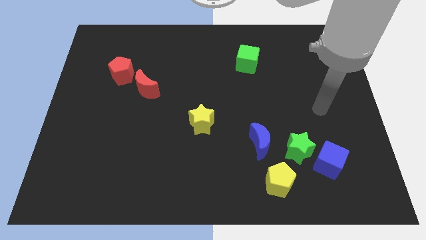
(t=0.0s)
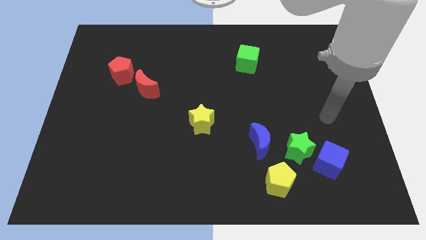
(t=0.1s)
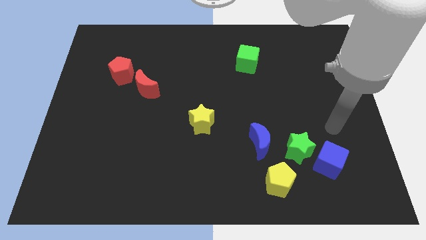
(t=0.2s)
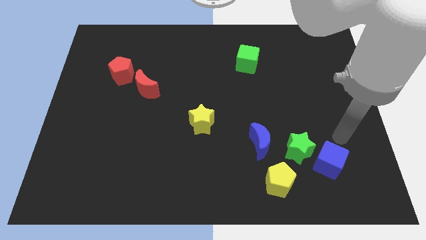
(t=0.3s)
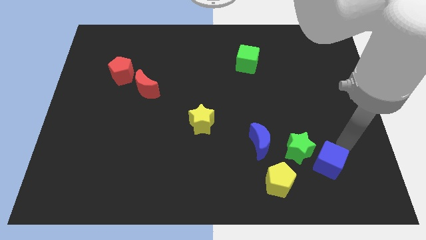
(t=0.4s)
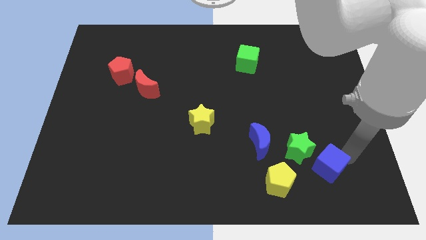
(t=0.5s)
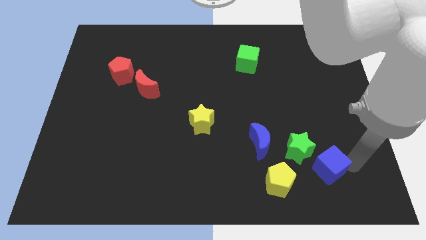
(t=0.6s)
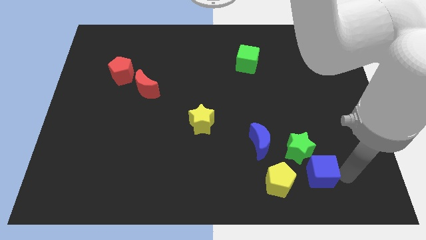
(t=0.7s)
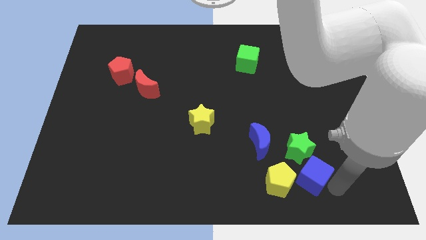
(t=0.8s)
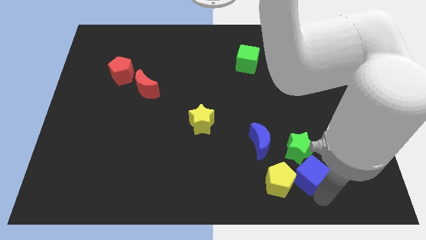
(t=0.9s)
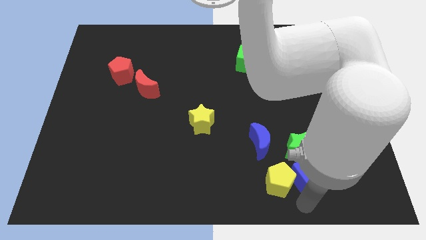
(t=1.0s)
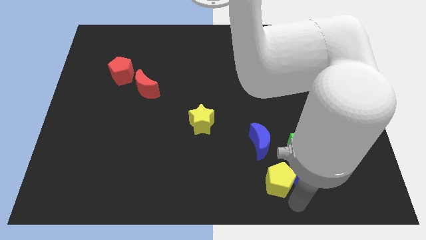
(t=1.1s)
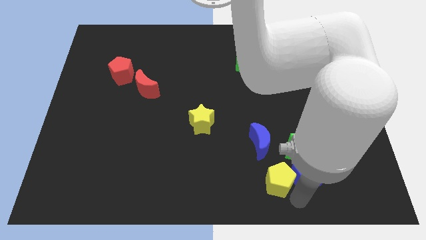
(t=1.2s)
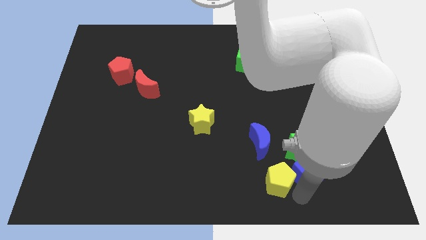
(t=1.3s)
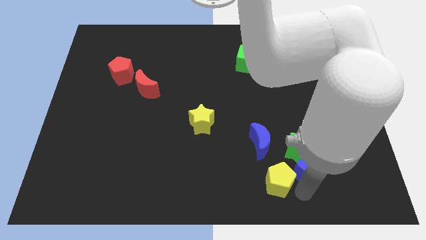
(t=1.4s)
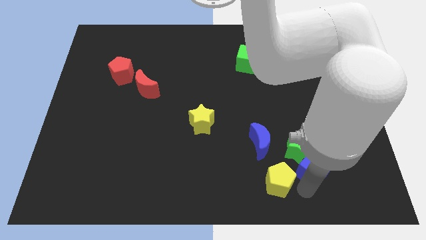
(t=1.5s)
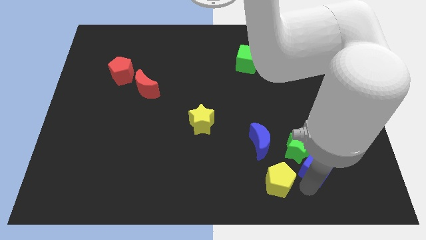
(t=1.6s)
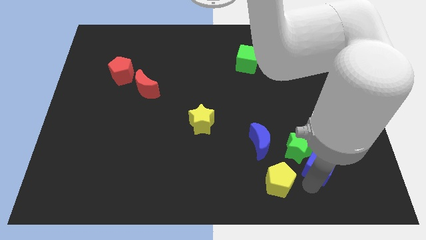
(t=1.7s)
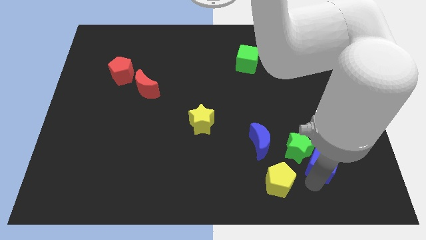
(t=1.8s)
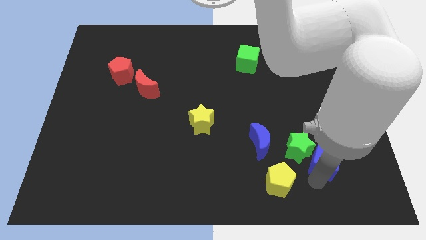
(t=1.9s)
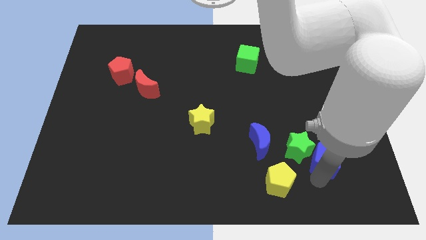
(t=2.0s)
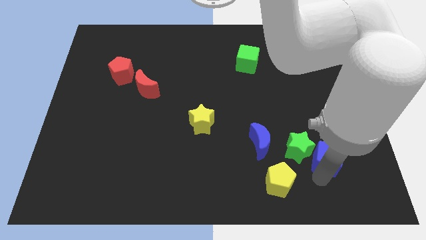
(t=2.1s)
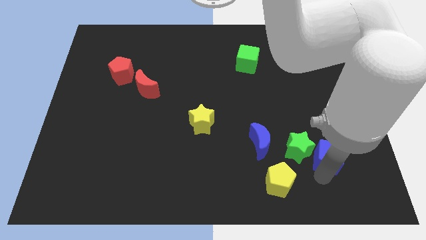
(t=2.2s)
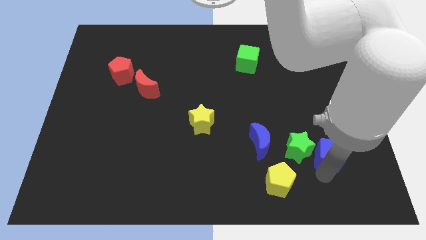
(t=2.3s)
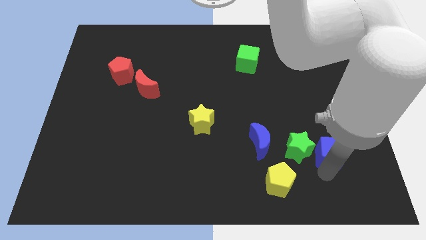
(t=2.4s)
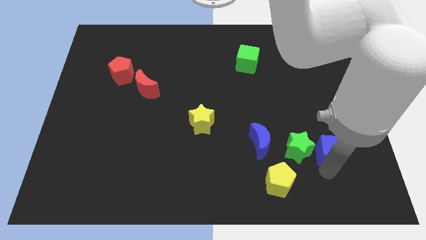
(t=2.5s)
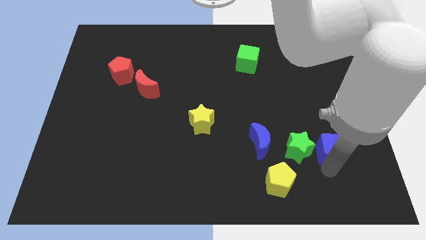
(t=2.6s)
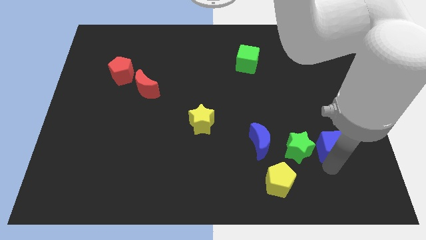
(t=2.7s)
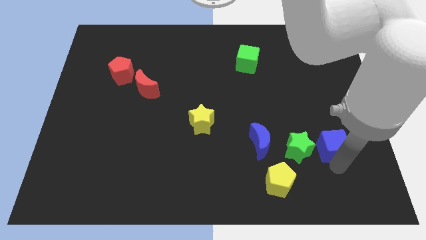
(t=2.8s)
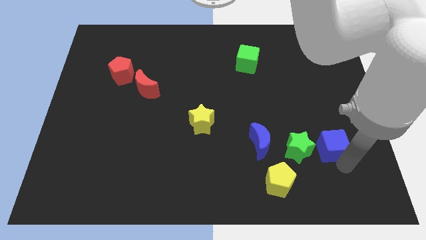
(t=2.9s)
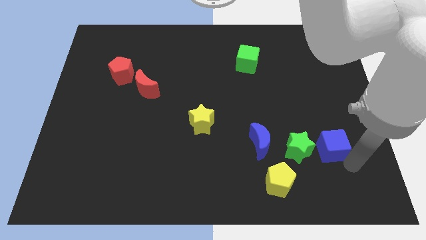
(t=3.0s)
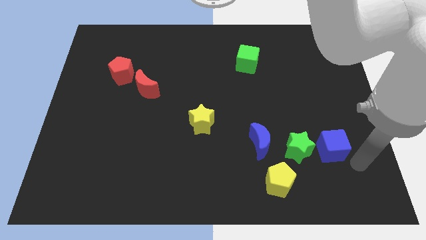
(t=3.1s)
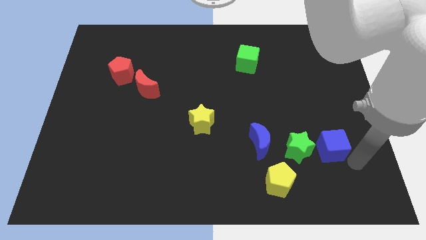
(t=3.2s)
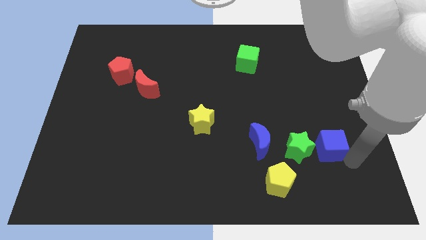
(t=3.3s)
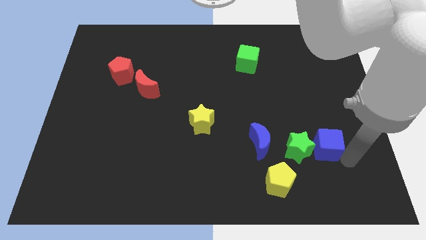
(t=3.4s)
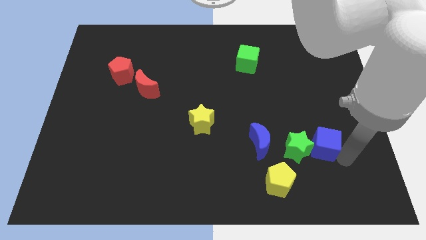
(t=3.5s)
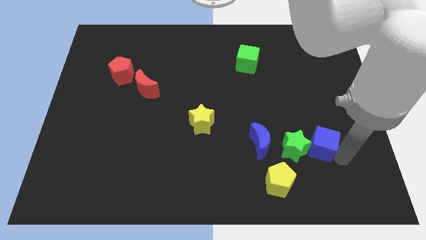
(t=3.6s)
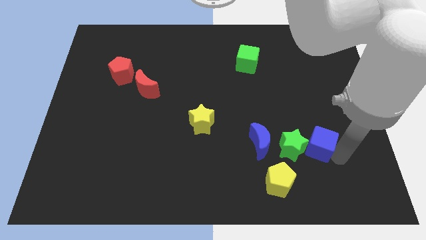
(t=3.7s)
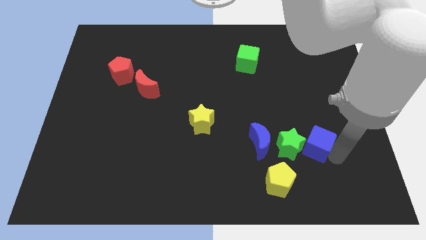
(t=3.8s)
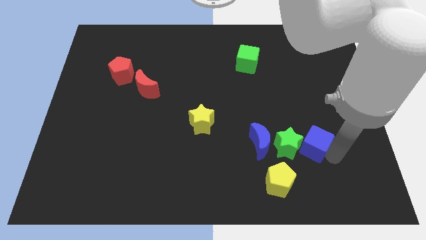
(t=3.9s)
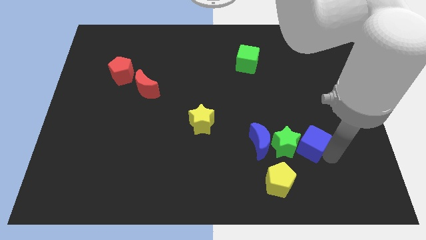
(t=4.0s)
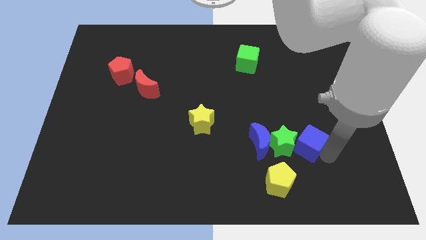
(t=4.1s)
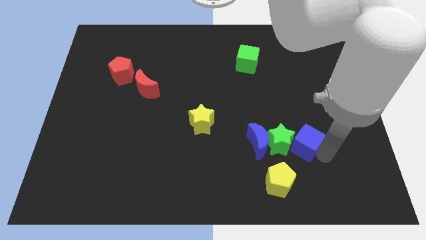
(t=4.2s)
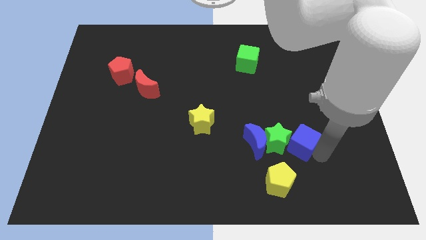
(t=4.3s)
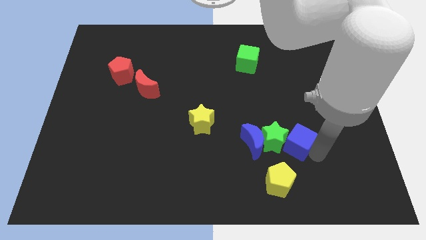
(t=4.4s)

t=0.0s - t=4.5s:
slide the blue cube slightly diagonally upwards and left

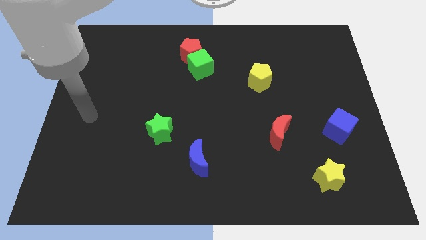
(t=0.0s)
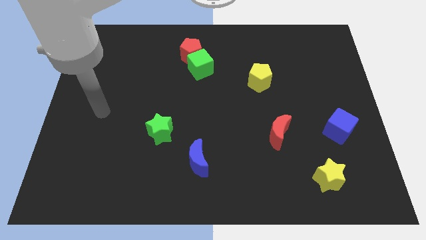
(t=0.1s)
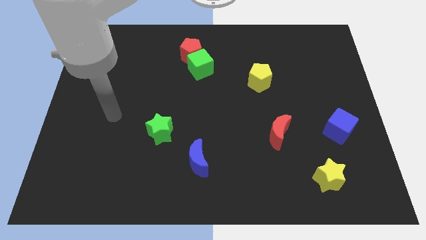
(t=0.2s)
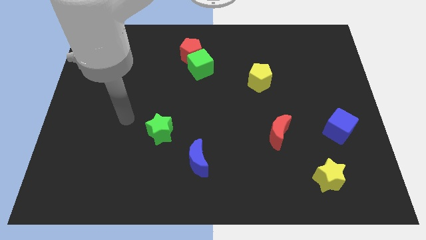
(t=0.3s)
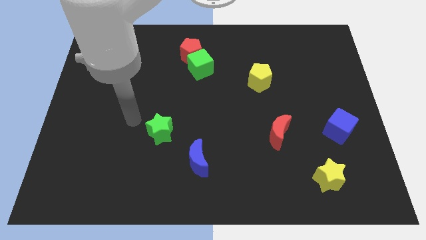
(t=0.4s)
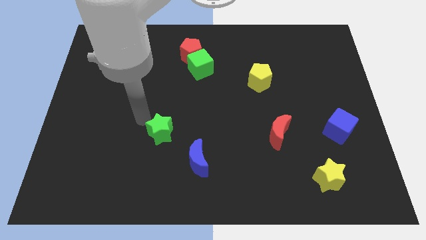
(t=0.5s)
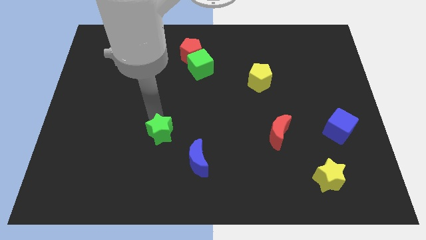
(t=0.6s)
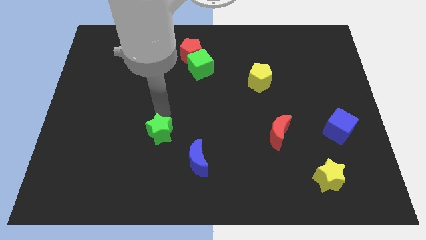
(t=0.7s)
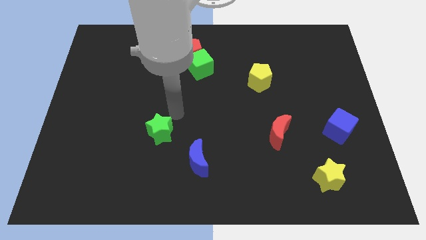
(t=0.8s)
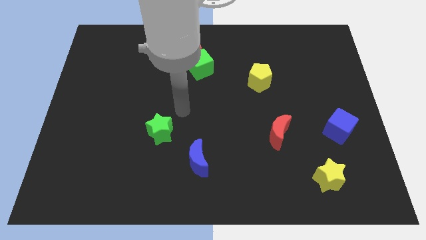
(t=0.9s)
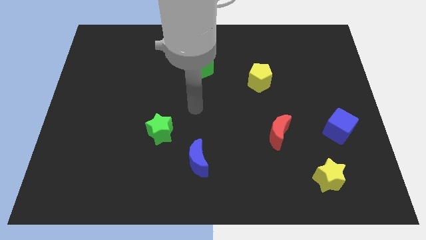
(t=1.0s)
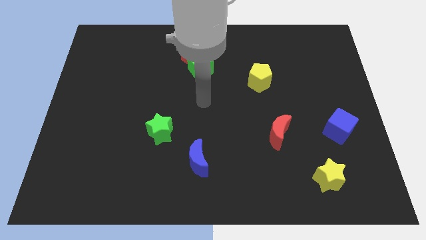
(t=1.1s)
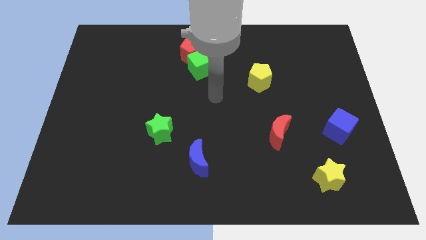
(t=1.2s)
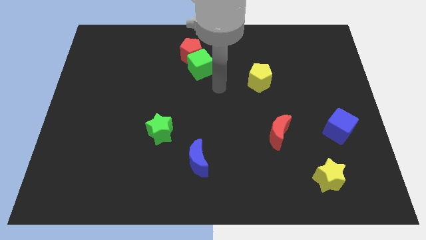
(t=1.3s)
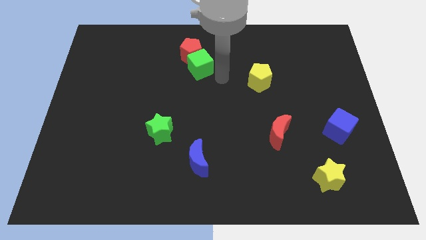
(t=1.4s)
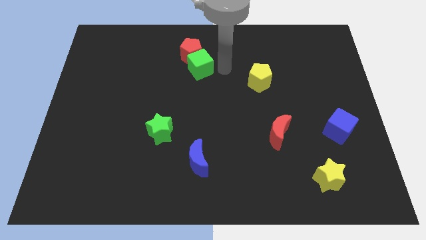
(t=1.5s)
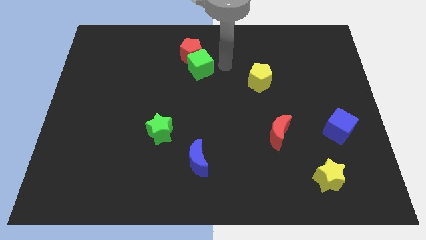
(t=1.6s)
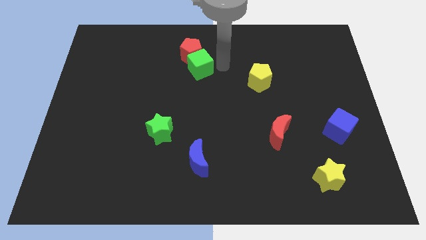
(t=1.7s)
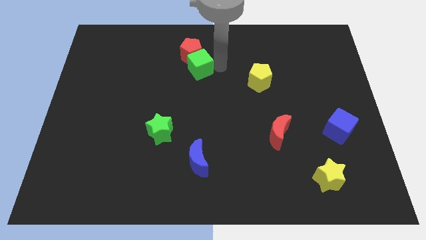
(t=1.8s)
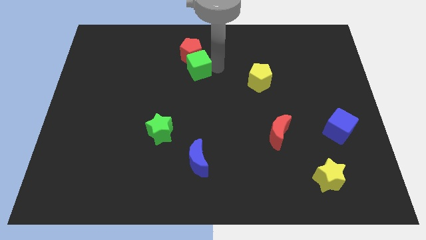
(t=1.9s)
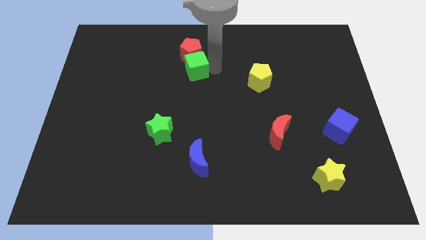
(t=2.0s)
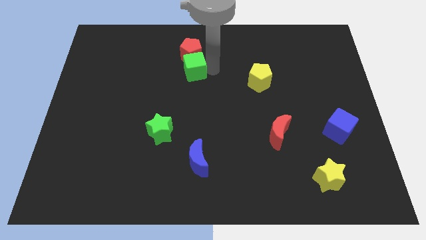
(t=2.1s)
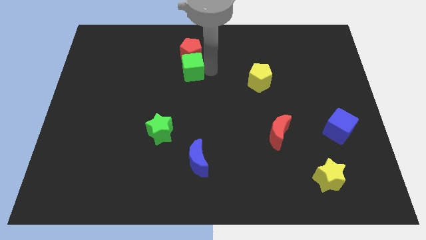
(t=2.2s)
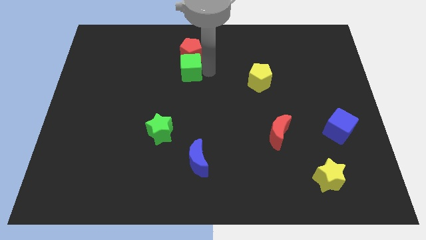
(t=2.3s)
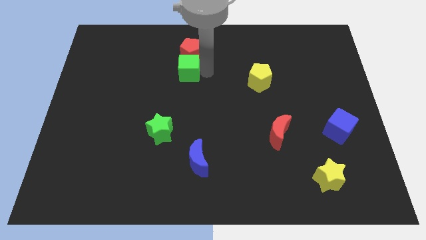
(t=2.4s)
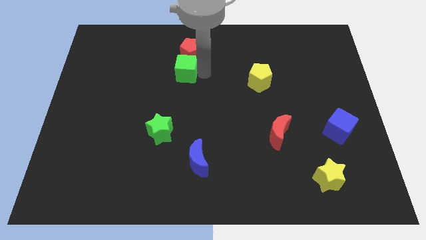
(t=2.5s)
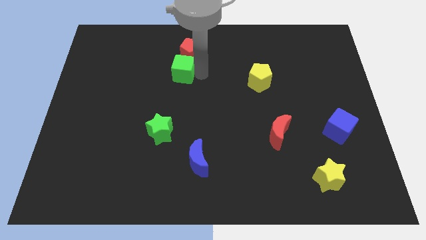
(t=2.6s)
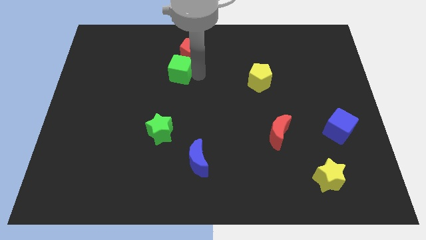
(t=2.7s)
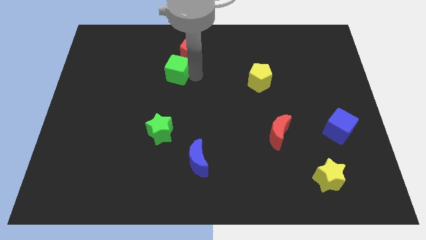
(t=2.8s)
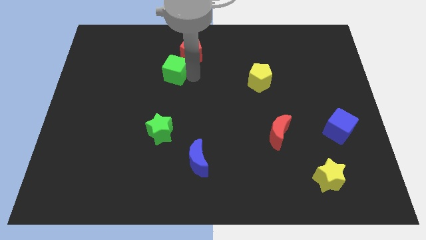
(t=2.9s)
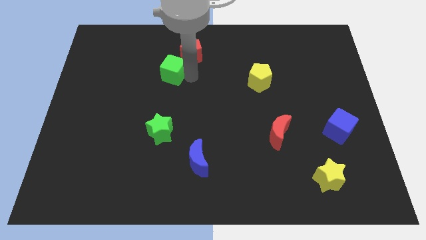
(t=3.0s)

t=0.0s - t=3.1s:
push the green cube somewhat to the left

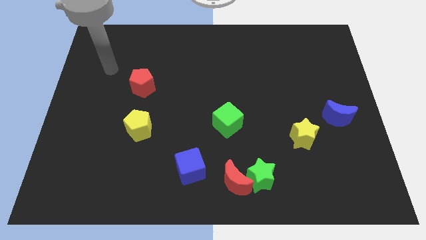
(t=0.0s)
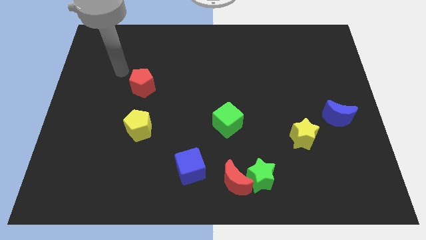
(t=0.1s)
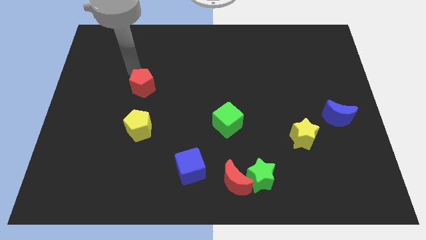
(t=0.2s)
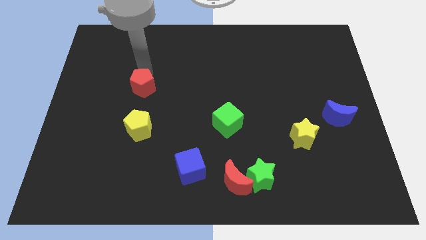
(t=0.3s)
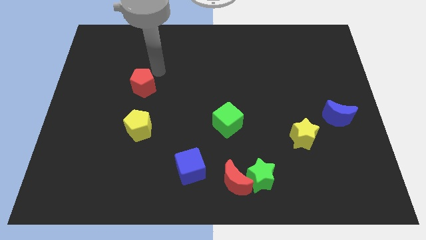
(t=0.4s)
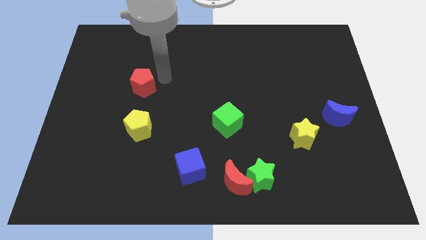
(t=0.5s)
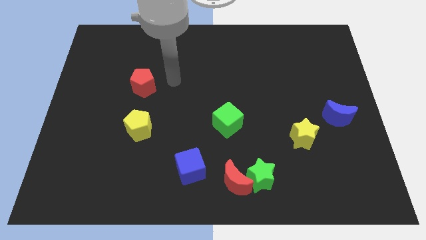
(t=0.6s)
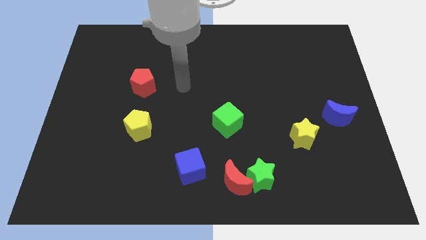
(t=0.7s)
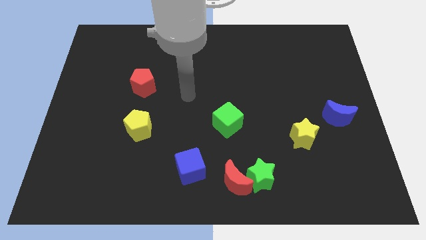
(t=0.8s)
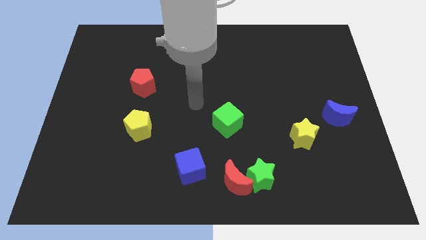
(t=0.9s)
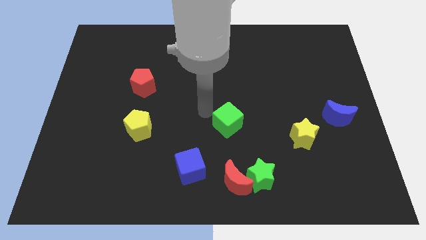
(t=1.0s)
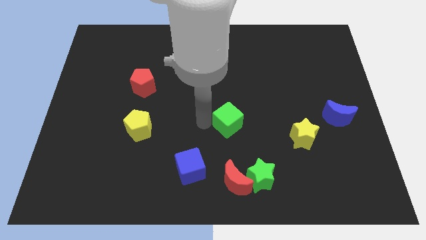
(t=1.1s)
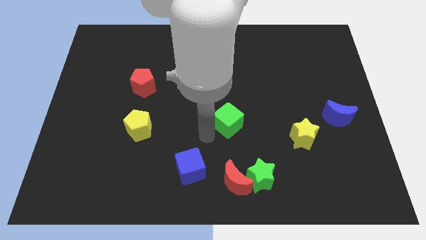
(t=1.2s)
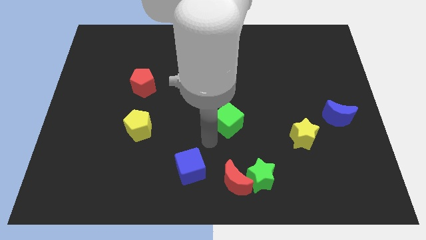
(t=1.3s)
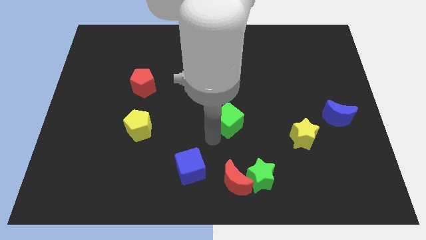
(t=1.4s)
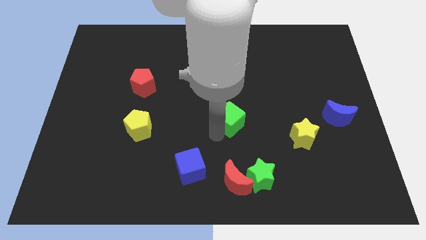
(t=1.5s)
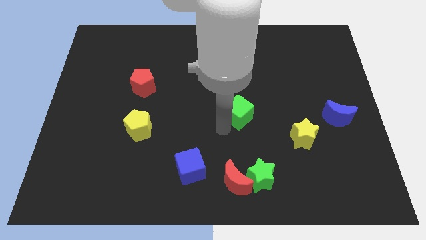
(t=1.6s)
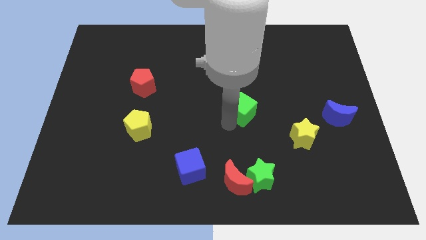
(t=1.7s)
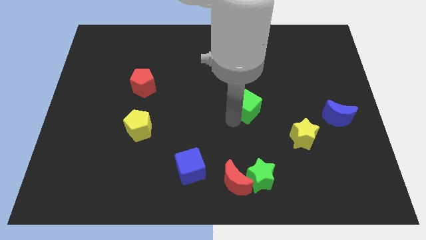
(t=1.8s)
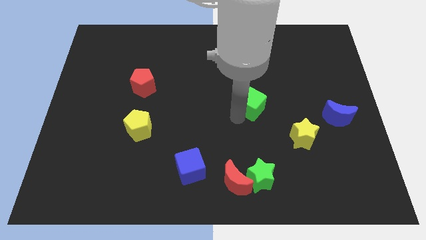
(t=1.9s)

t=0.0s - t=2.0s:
slide the green cube a bit upwards and right diagonally
